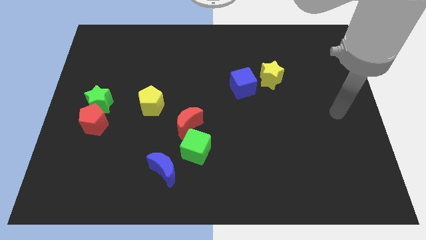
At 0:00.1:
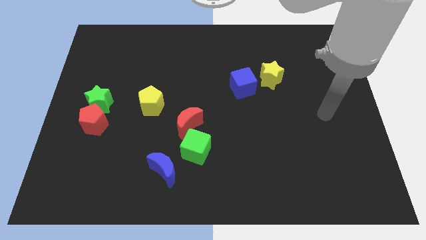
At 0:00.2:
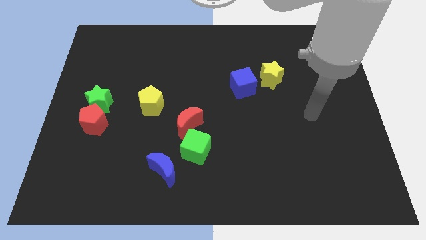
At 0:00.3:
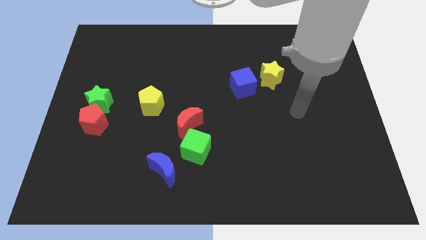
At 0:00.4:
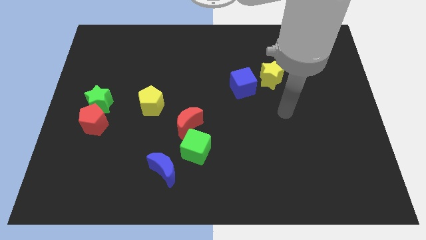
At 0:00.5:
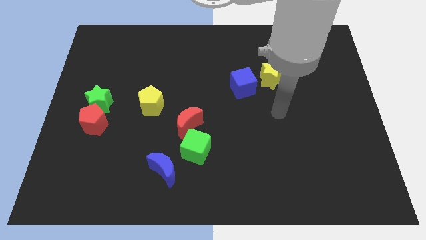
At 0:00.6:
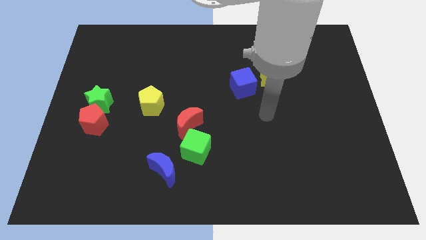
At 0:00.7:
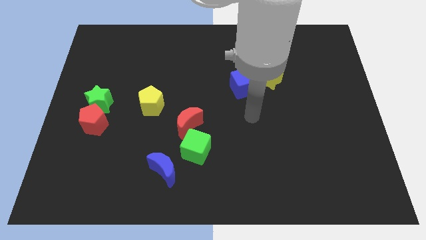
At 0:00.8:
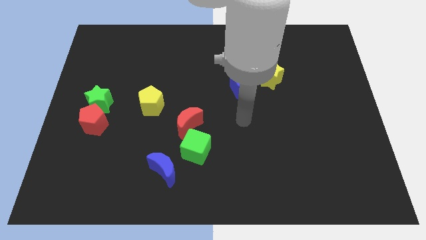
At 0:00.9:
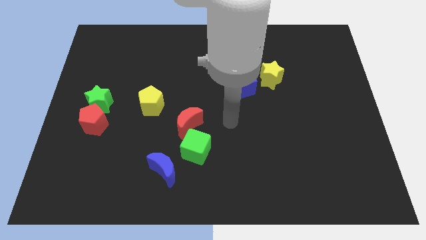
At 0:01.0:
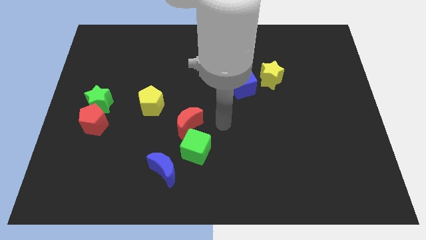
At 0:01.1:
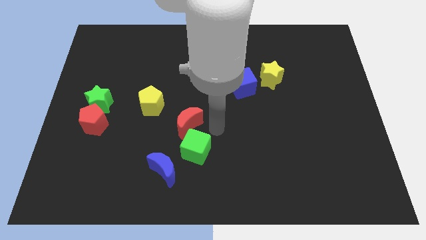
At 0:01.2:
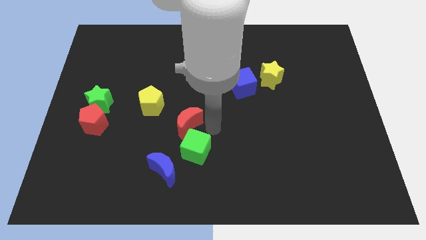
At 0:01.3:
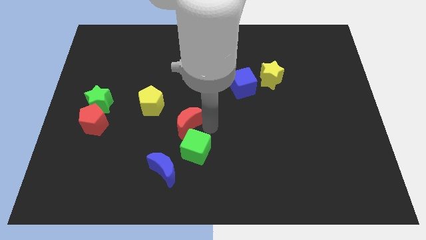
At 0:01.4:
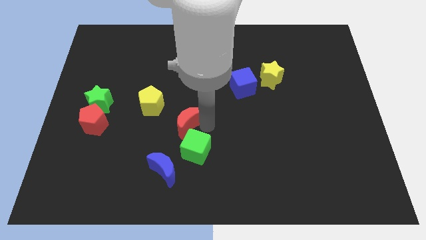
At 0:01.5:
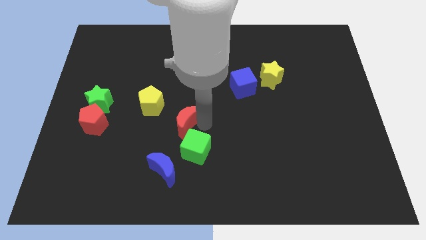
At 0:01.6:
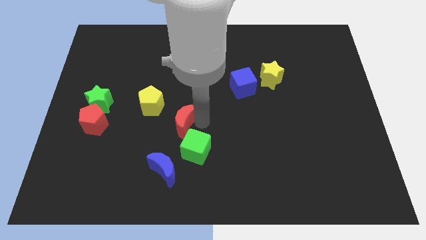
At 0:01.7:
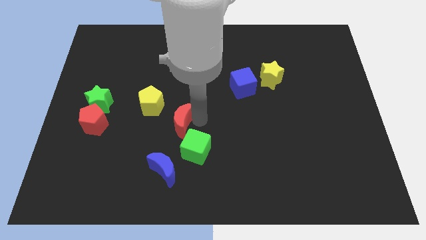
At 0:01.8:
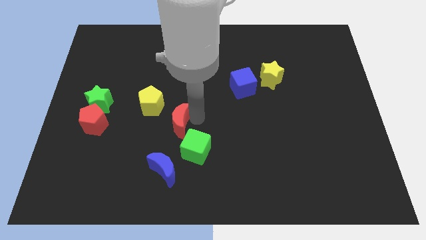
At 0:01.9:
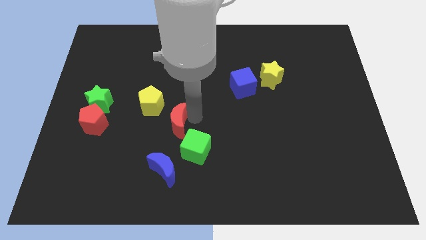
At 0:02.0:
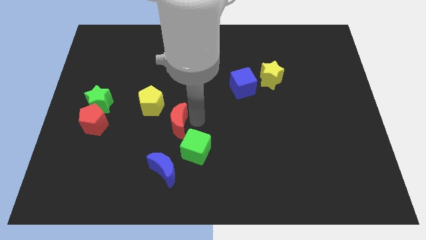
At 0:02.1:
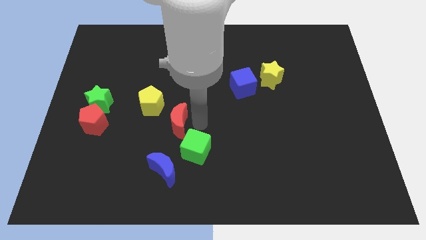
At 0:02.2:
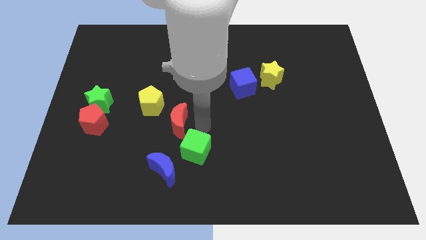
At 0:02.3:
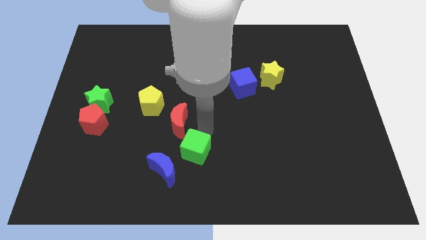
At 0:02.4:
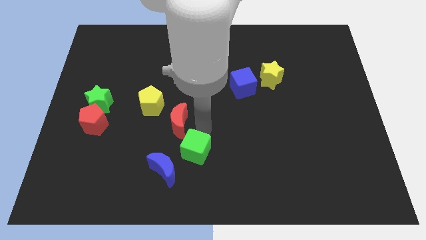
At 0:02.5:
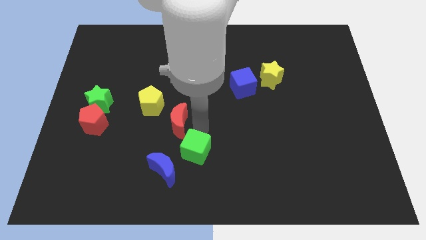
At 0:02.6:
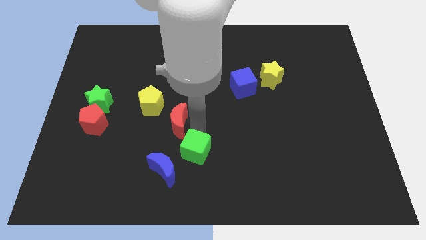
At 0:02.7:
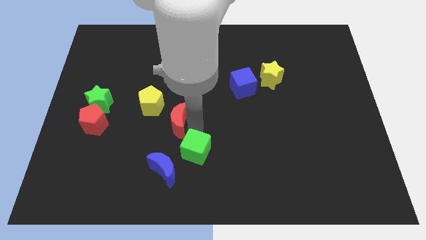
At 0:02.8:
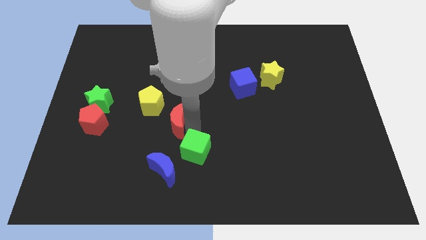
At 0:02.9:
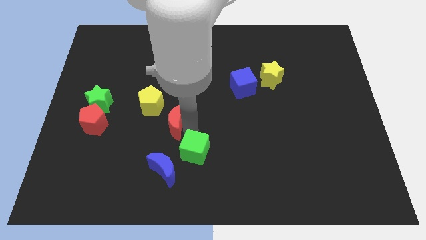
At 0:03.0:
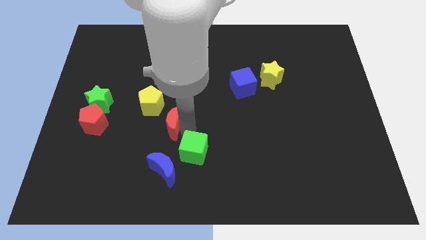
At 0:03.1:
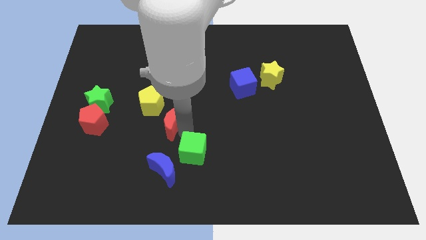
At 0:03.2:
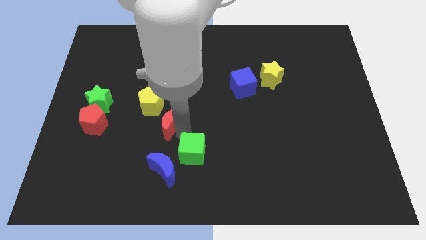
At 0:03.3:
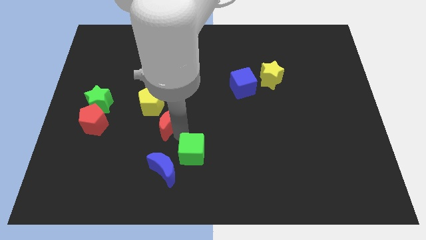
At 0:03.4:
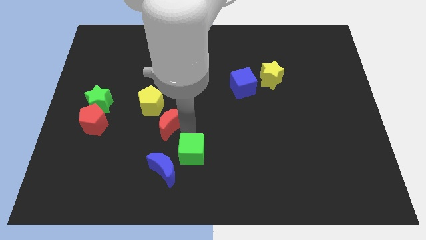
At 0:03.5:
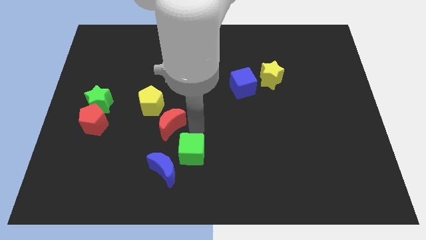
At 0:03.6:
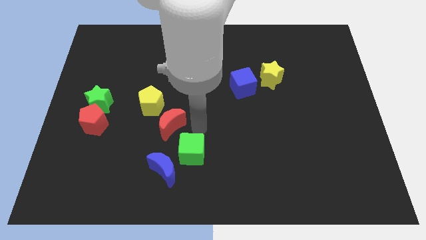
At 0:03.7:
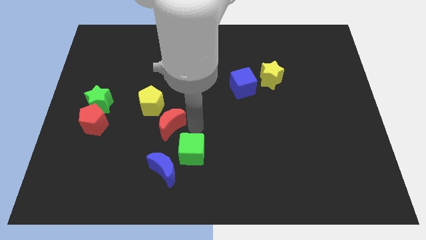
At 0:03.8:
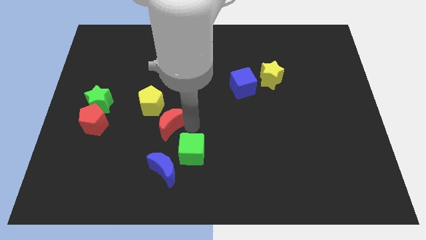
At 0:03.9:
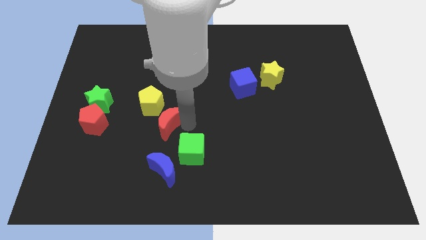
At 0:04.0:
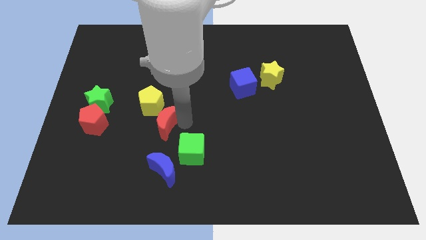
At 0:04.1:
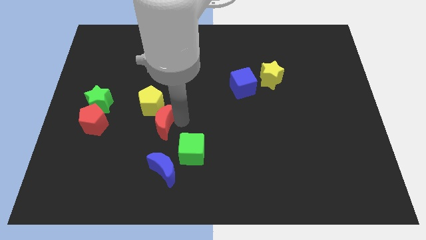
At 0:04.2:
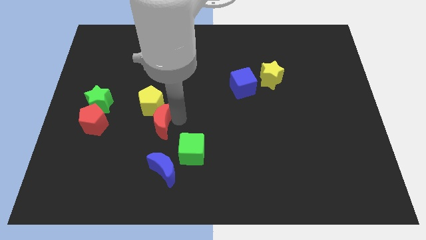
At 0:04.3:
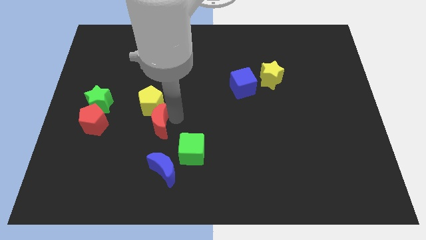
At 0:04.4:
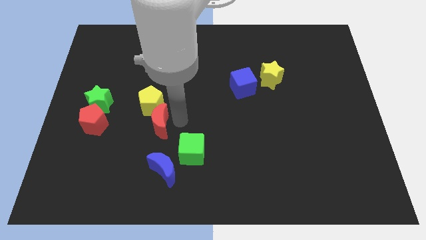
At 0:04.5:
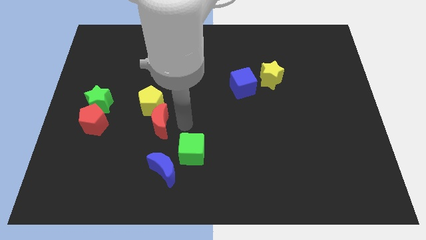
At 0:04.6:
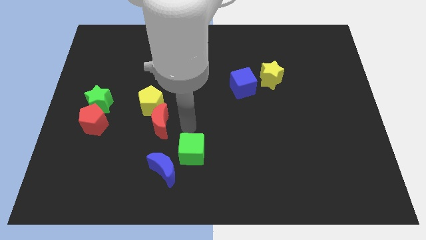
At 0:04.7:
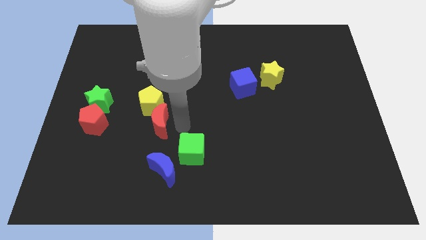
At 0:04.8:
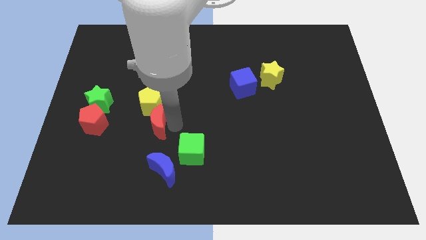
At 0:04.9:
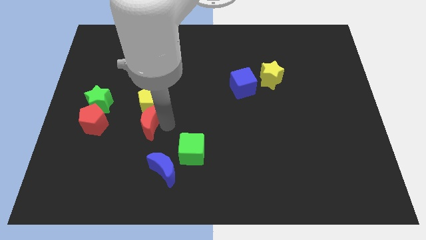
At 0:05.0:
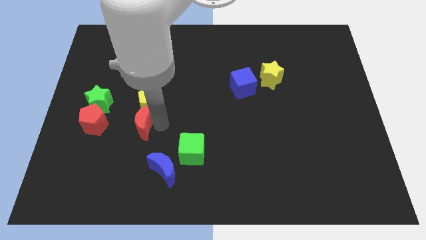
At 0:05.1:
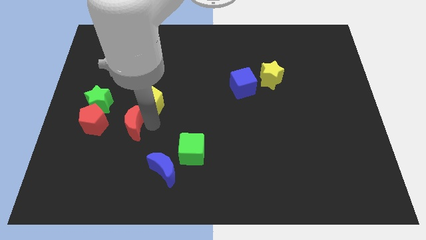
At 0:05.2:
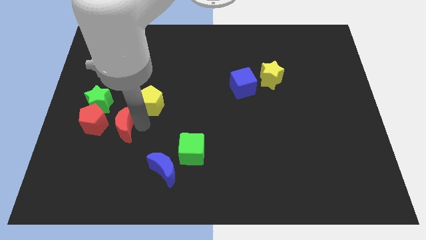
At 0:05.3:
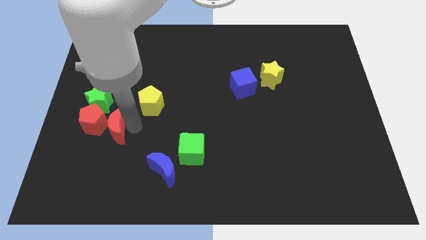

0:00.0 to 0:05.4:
put the red moon towards the red pentagon

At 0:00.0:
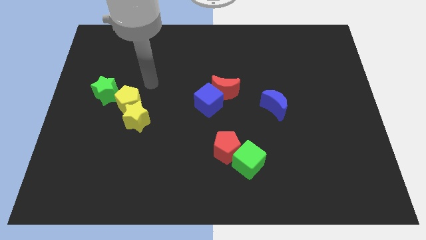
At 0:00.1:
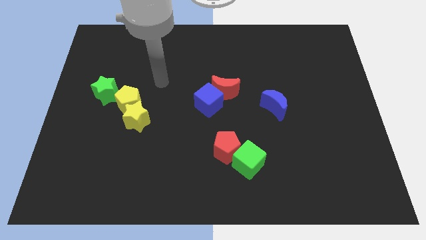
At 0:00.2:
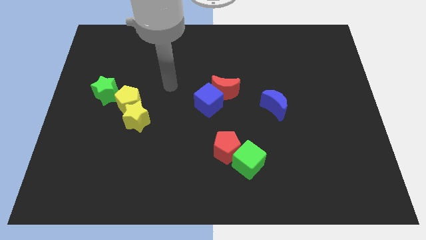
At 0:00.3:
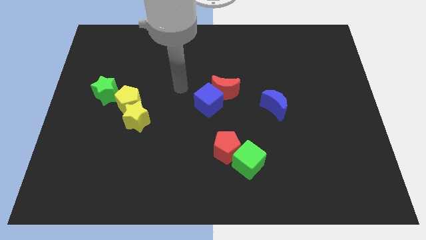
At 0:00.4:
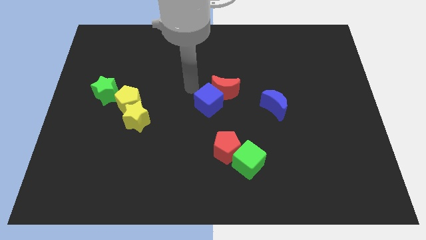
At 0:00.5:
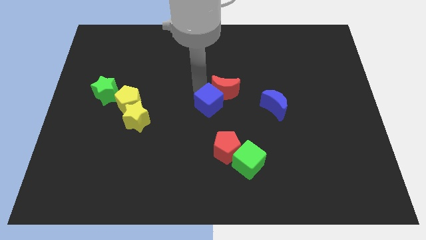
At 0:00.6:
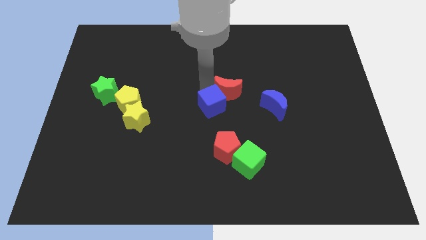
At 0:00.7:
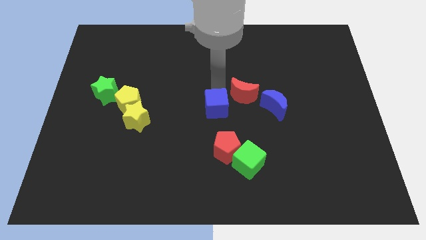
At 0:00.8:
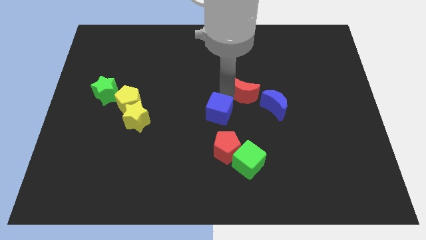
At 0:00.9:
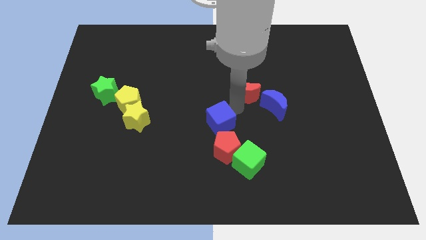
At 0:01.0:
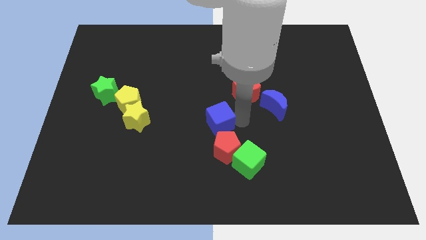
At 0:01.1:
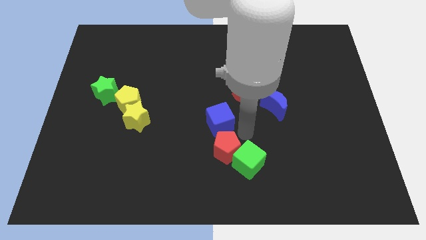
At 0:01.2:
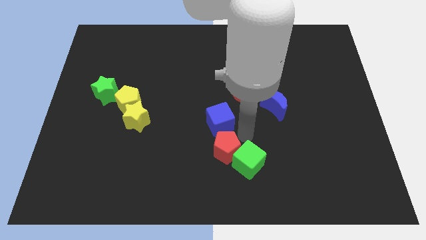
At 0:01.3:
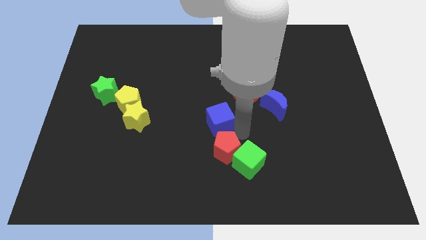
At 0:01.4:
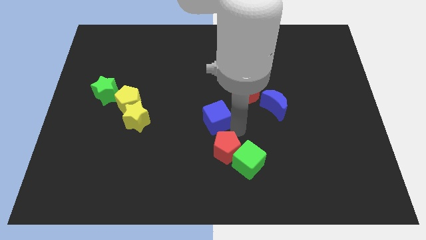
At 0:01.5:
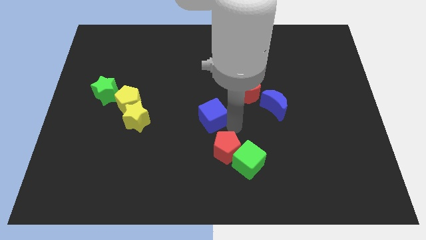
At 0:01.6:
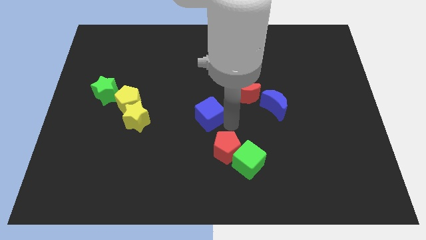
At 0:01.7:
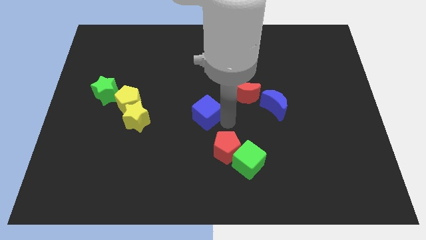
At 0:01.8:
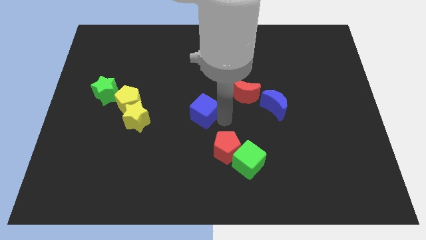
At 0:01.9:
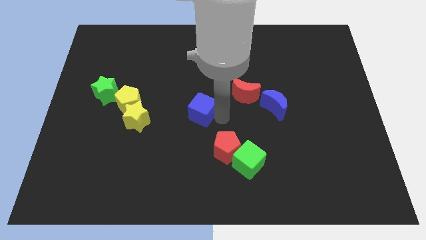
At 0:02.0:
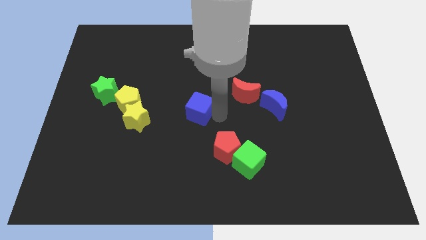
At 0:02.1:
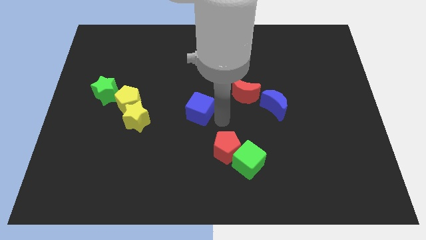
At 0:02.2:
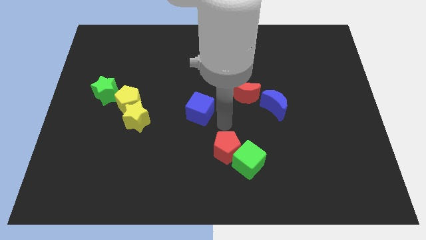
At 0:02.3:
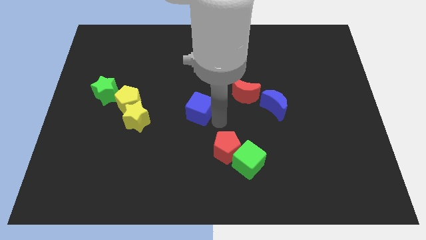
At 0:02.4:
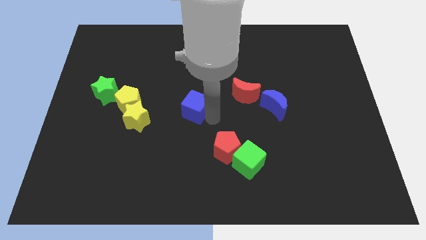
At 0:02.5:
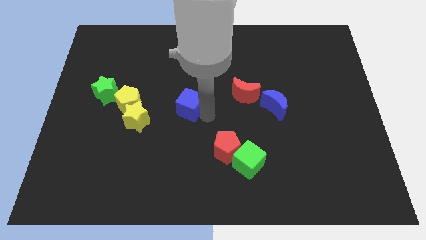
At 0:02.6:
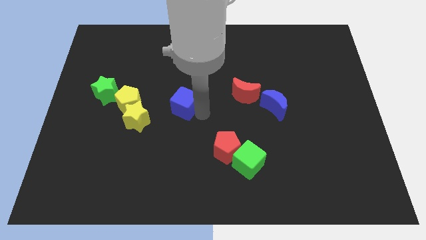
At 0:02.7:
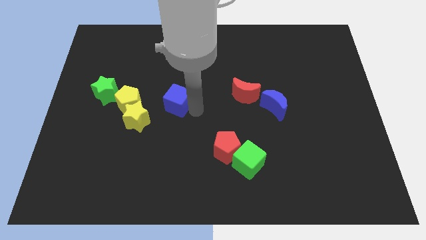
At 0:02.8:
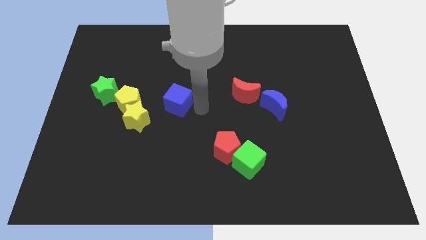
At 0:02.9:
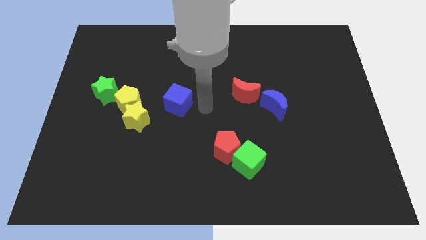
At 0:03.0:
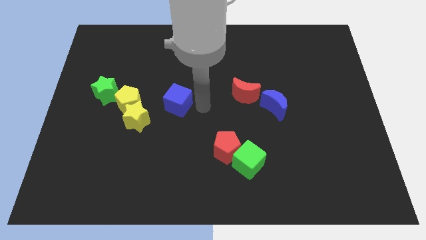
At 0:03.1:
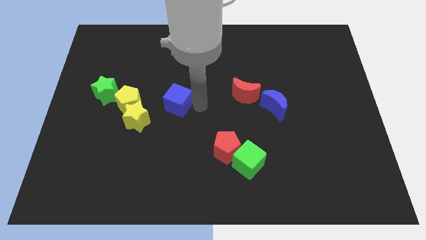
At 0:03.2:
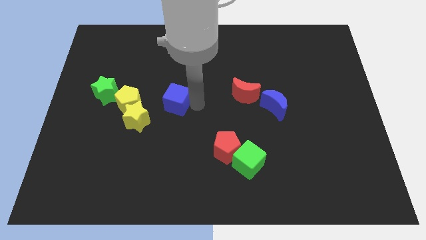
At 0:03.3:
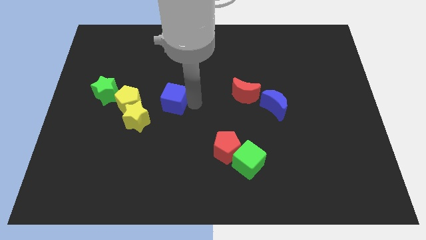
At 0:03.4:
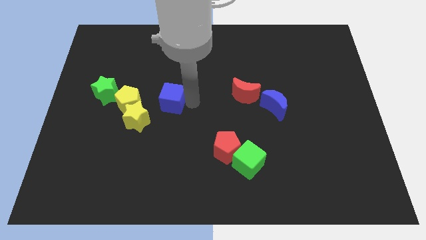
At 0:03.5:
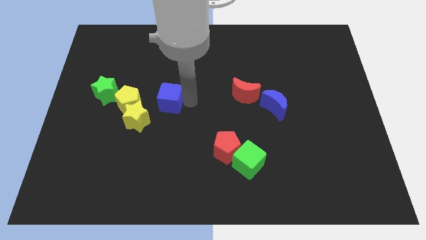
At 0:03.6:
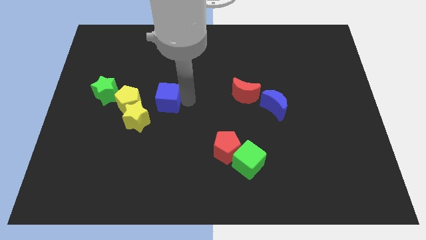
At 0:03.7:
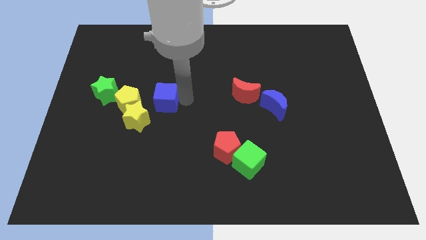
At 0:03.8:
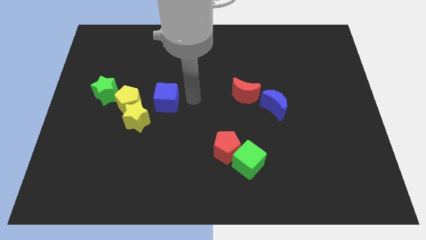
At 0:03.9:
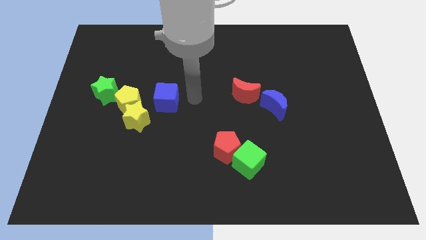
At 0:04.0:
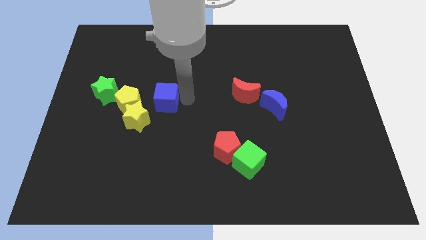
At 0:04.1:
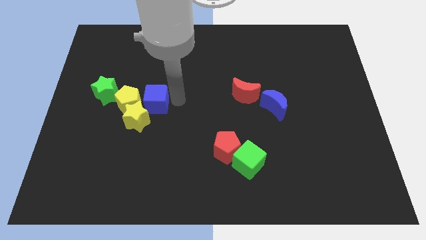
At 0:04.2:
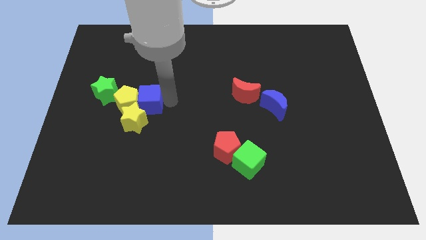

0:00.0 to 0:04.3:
move the blue cube next to the yellow pentagon
